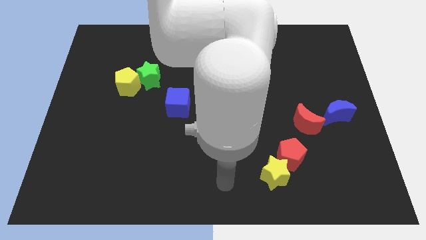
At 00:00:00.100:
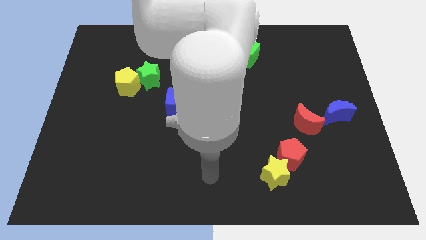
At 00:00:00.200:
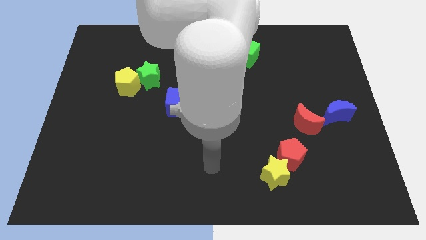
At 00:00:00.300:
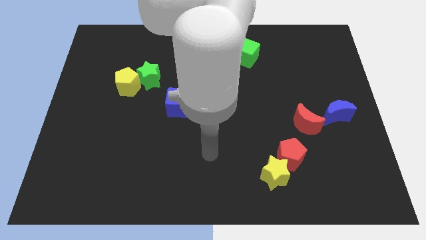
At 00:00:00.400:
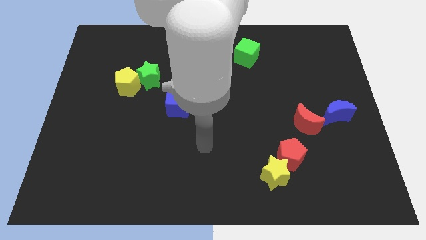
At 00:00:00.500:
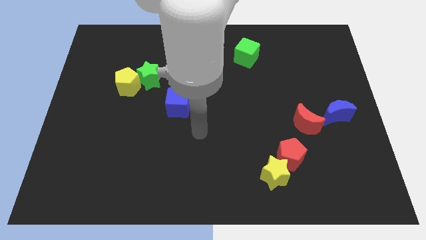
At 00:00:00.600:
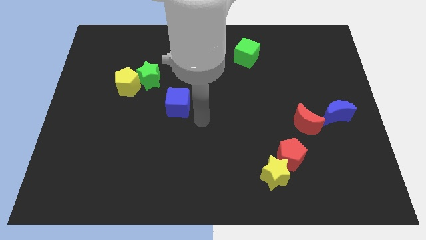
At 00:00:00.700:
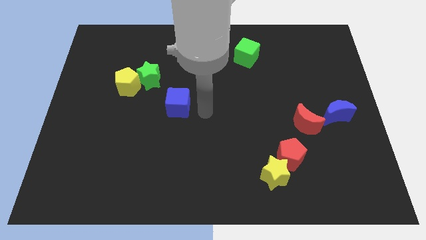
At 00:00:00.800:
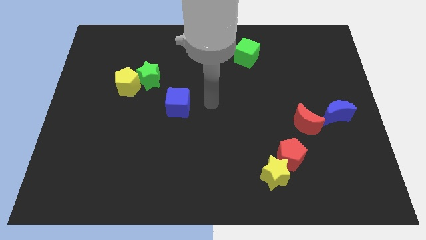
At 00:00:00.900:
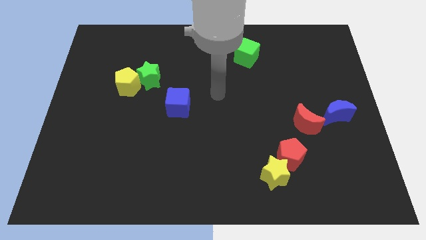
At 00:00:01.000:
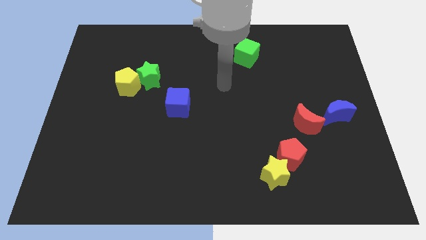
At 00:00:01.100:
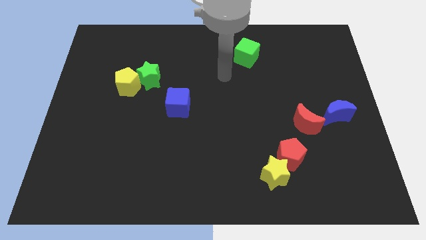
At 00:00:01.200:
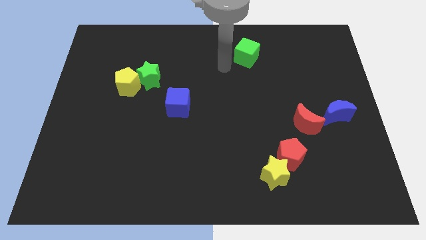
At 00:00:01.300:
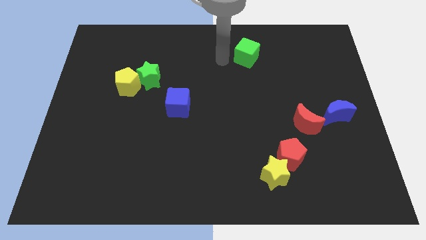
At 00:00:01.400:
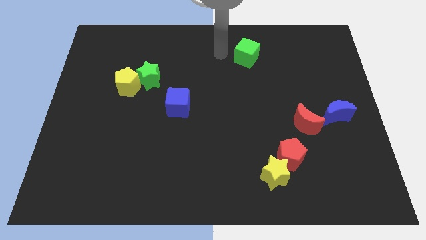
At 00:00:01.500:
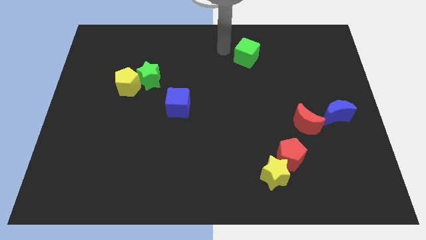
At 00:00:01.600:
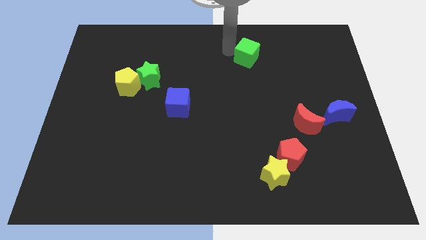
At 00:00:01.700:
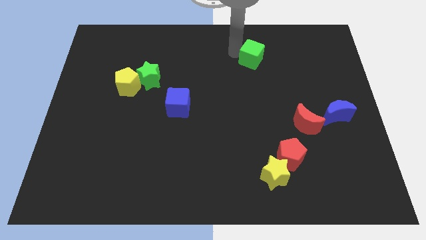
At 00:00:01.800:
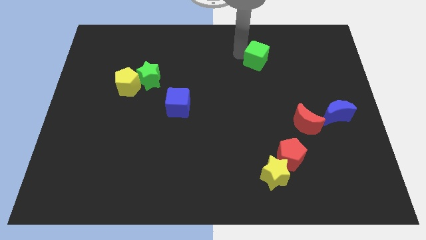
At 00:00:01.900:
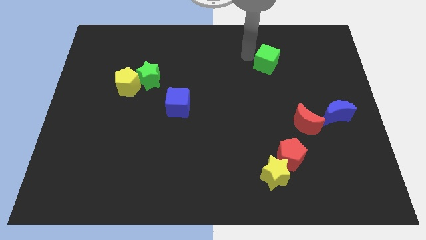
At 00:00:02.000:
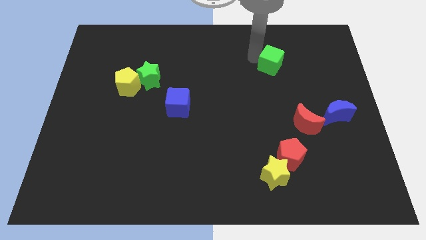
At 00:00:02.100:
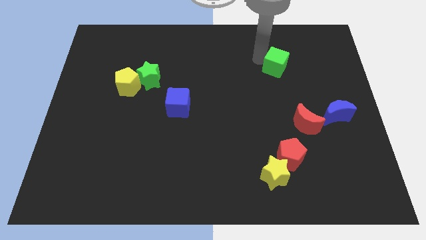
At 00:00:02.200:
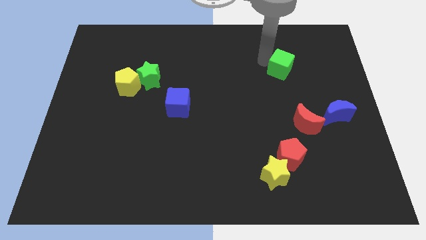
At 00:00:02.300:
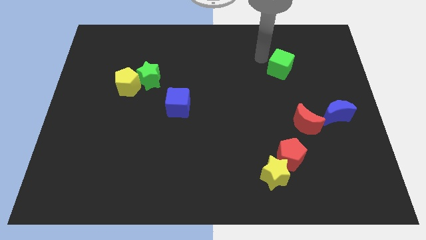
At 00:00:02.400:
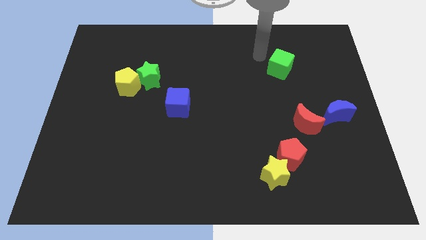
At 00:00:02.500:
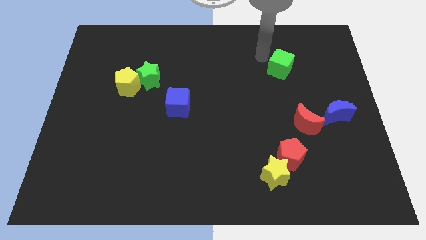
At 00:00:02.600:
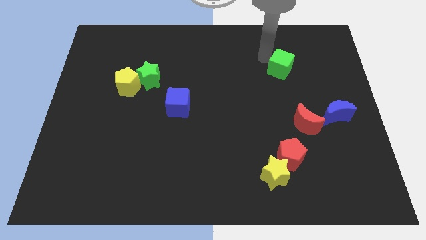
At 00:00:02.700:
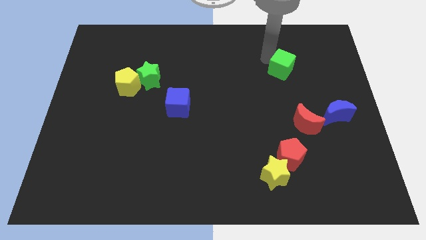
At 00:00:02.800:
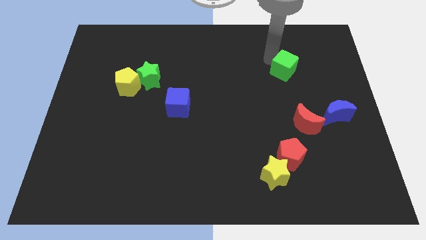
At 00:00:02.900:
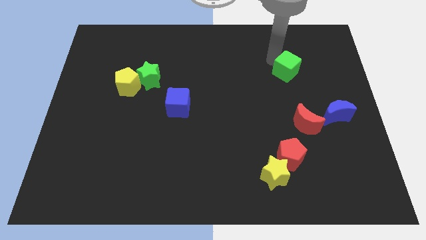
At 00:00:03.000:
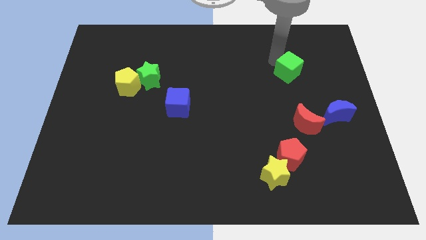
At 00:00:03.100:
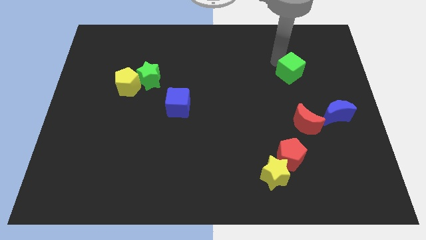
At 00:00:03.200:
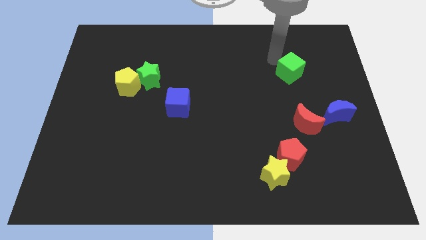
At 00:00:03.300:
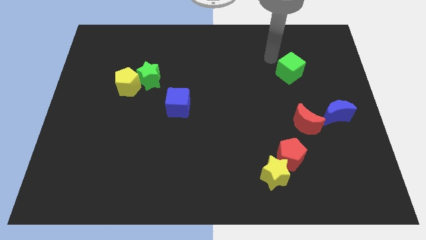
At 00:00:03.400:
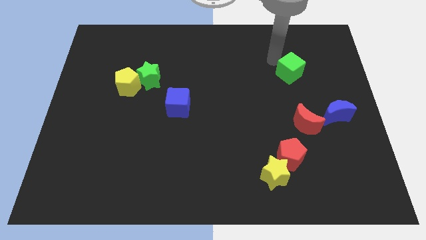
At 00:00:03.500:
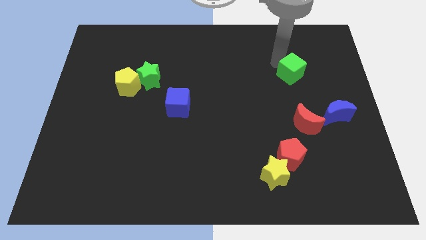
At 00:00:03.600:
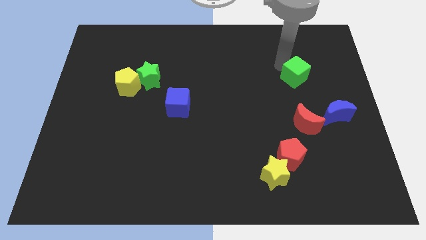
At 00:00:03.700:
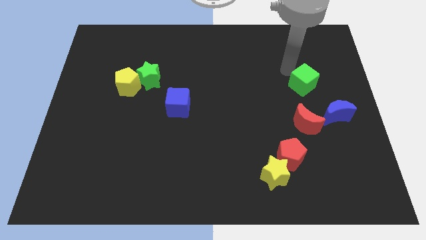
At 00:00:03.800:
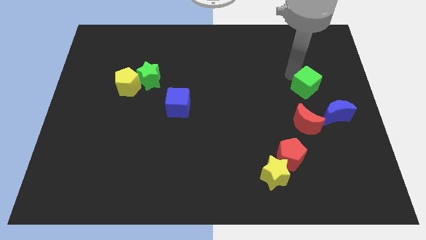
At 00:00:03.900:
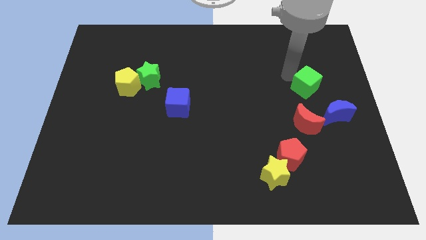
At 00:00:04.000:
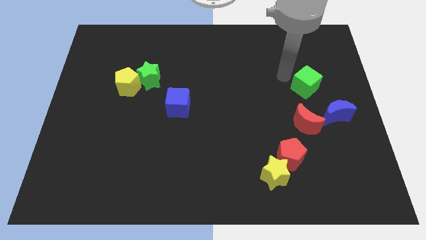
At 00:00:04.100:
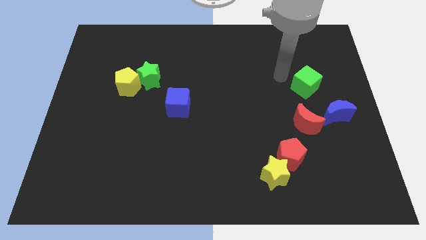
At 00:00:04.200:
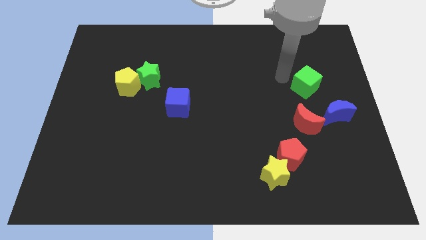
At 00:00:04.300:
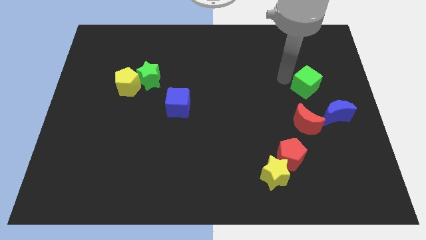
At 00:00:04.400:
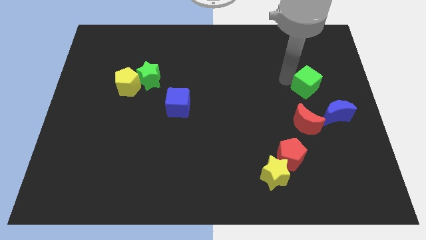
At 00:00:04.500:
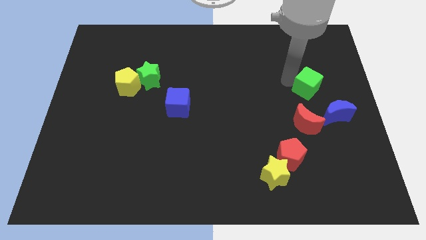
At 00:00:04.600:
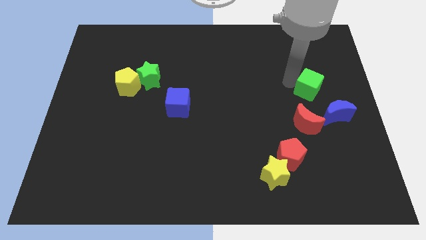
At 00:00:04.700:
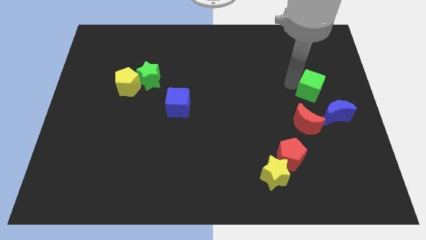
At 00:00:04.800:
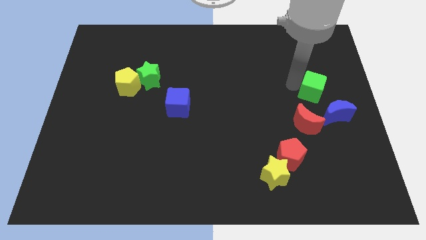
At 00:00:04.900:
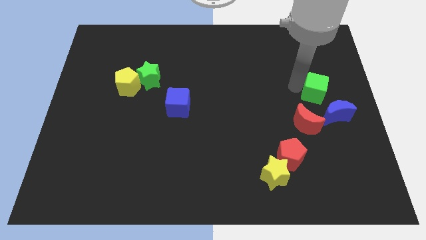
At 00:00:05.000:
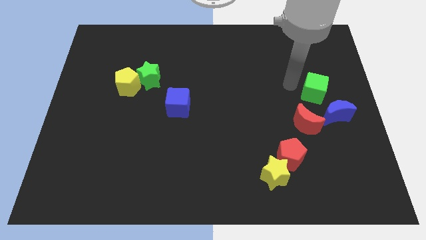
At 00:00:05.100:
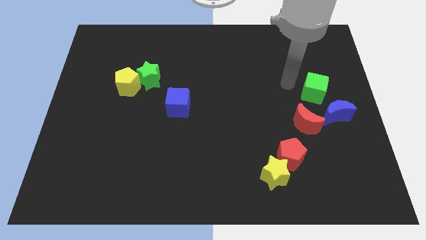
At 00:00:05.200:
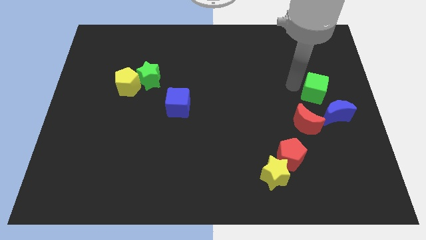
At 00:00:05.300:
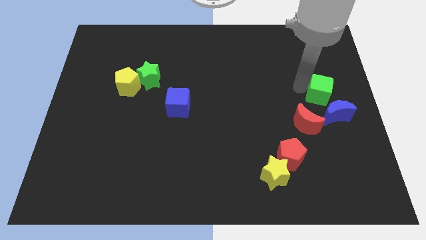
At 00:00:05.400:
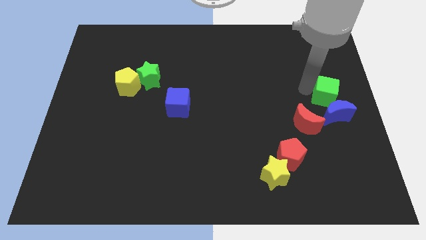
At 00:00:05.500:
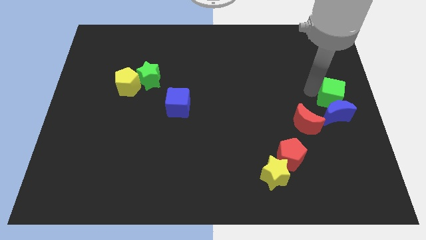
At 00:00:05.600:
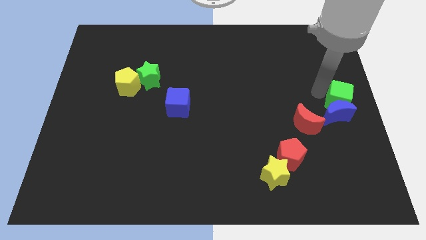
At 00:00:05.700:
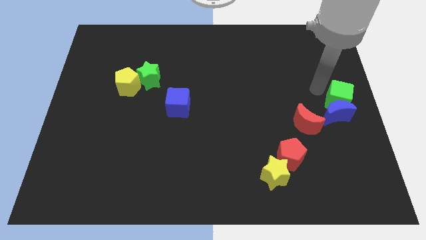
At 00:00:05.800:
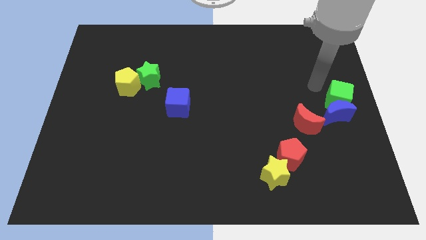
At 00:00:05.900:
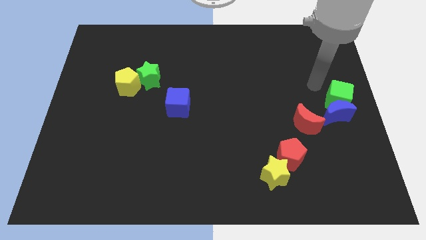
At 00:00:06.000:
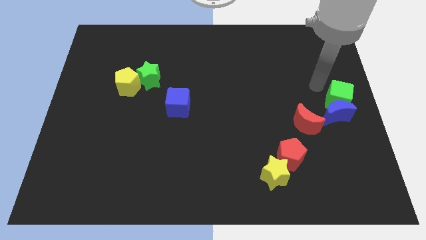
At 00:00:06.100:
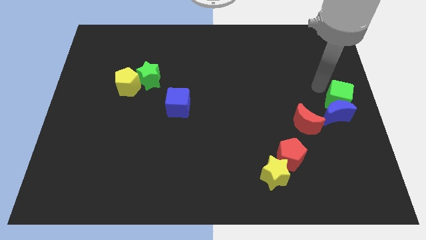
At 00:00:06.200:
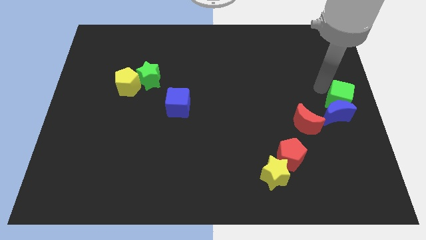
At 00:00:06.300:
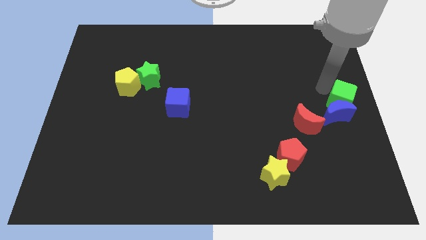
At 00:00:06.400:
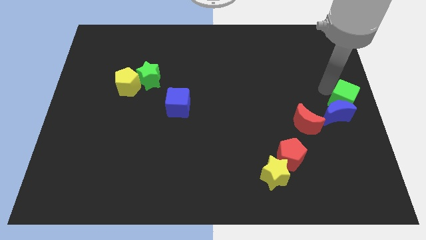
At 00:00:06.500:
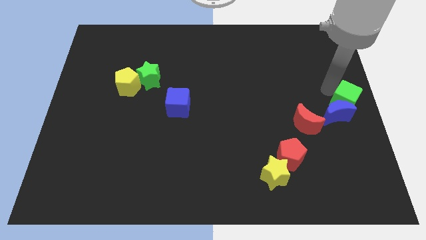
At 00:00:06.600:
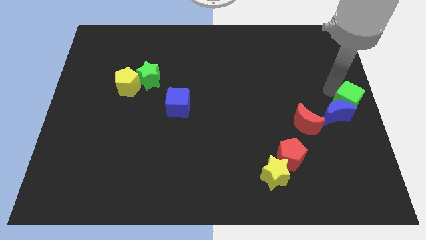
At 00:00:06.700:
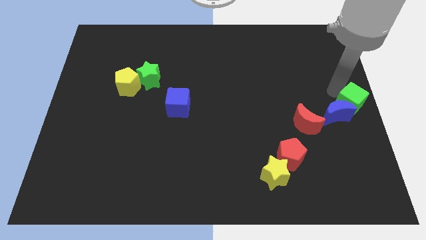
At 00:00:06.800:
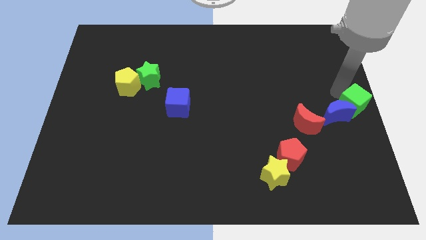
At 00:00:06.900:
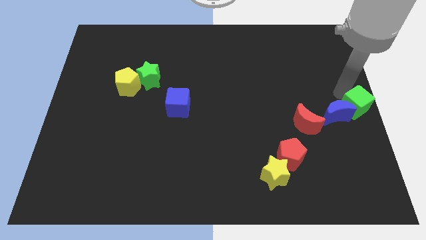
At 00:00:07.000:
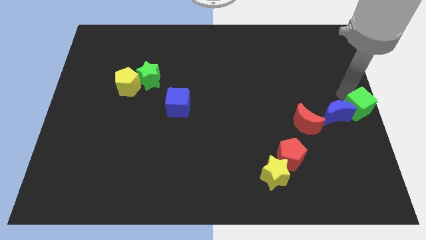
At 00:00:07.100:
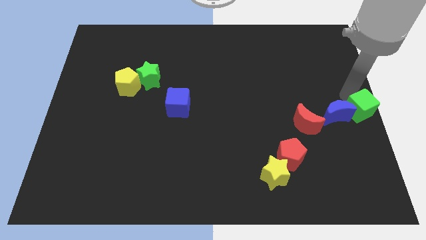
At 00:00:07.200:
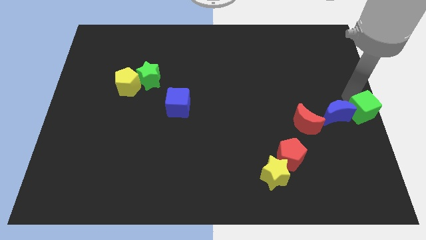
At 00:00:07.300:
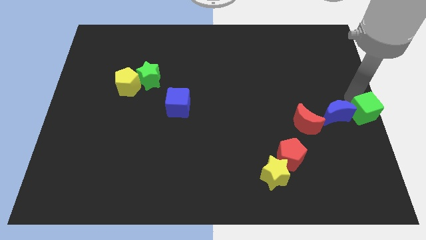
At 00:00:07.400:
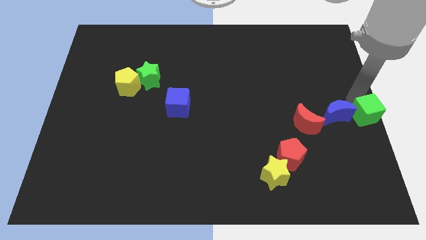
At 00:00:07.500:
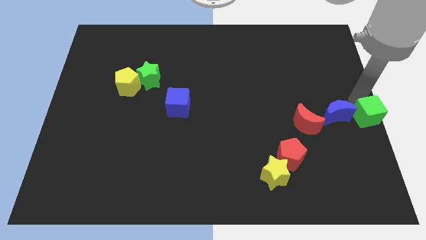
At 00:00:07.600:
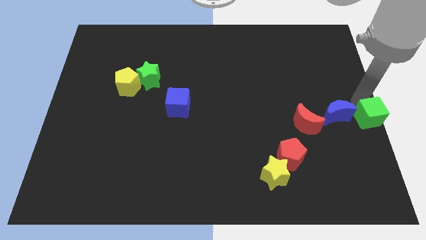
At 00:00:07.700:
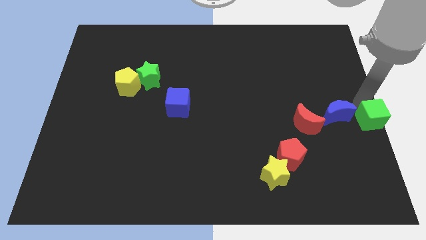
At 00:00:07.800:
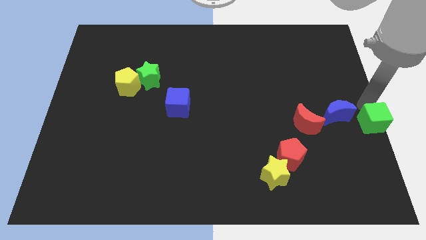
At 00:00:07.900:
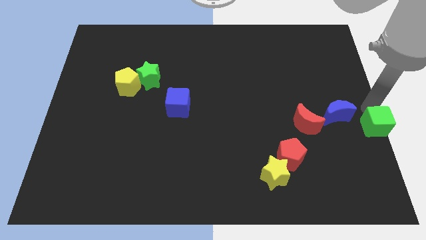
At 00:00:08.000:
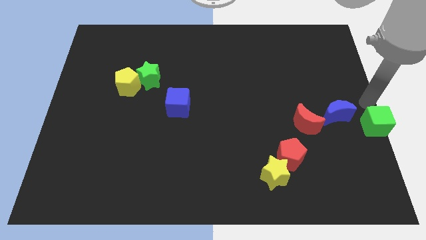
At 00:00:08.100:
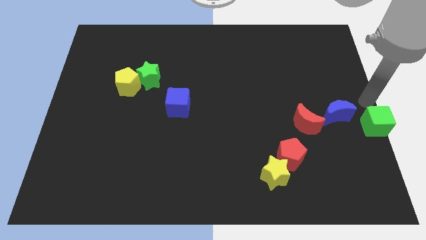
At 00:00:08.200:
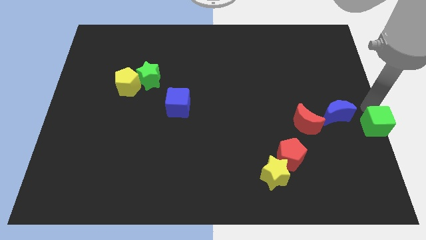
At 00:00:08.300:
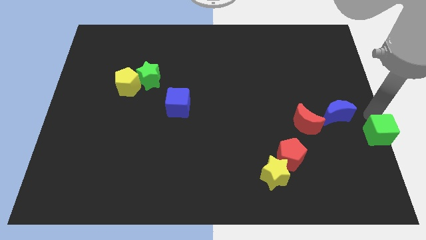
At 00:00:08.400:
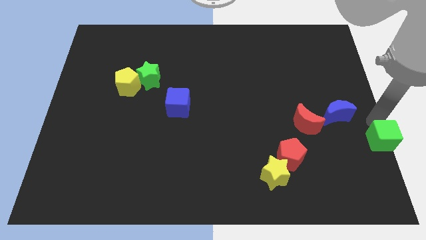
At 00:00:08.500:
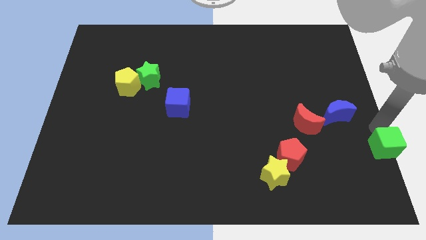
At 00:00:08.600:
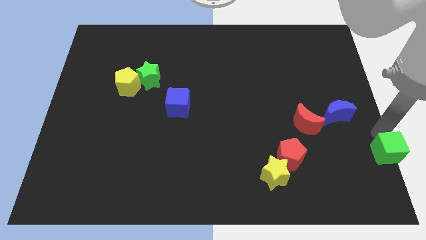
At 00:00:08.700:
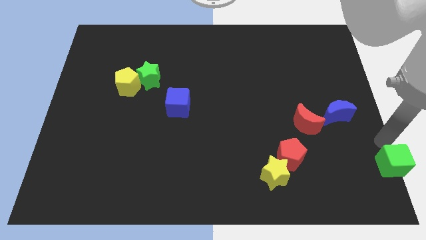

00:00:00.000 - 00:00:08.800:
move the green cube to the bottom right corner
